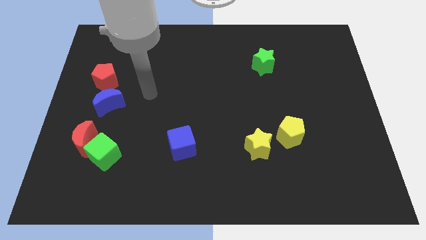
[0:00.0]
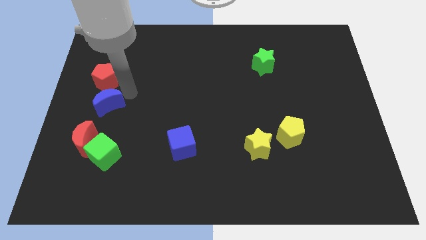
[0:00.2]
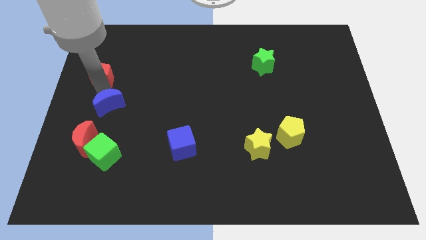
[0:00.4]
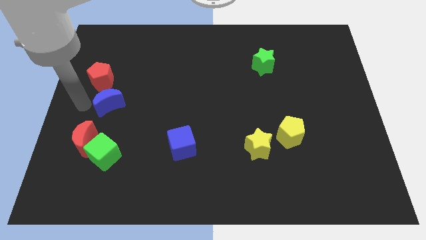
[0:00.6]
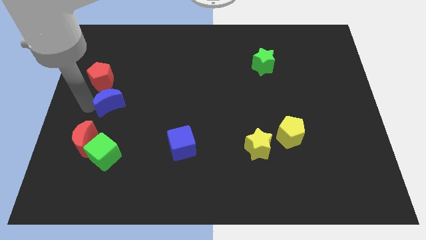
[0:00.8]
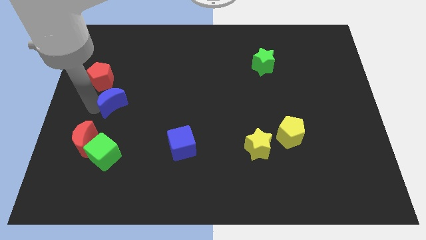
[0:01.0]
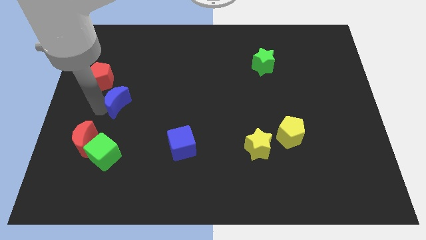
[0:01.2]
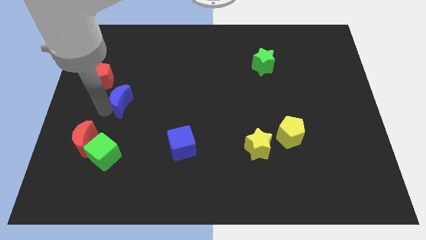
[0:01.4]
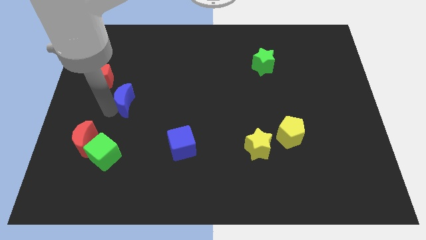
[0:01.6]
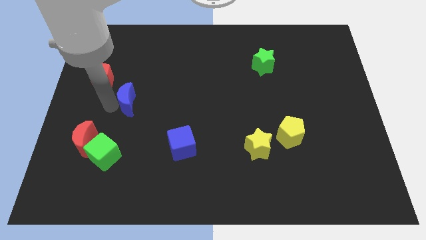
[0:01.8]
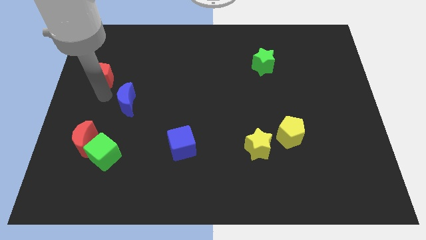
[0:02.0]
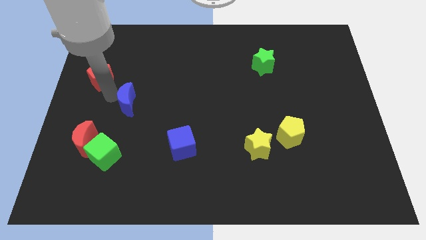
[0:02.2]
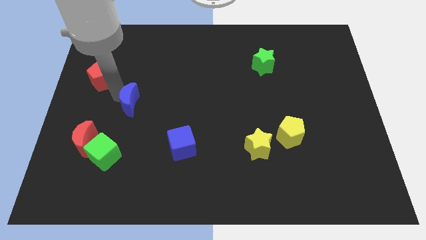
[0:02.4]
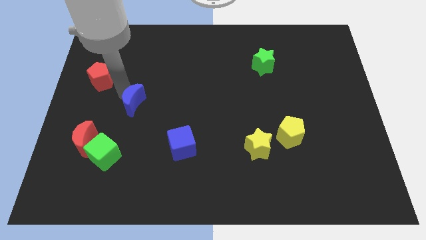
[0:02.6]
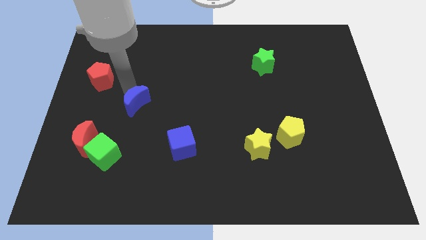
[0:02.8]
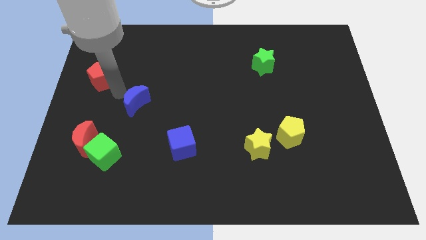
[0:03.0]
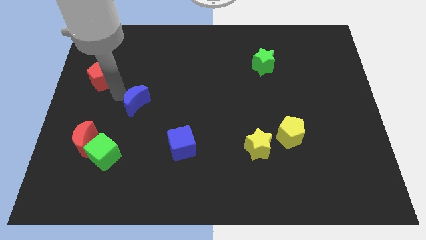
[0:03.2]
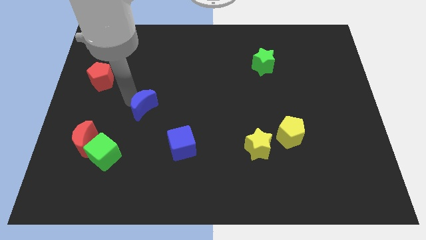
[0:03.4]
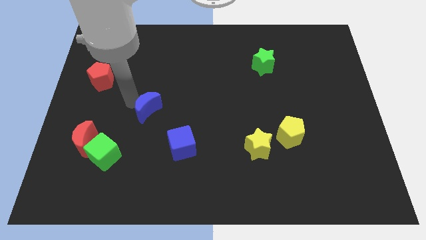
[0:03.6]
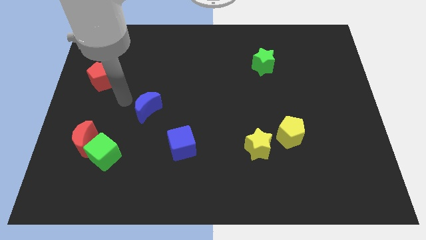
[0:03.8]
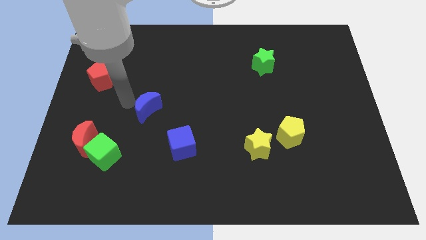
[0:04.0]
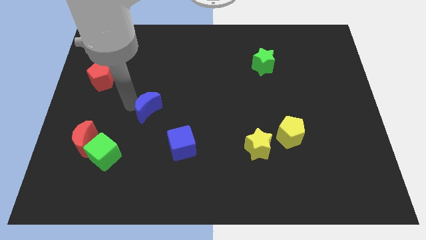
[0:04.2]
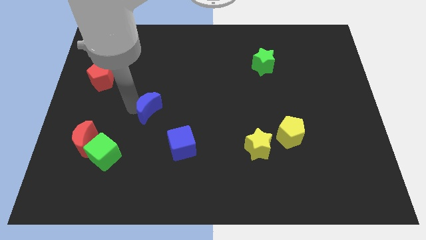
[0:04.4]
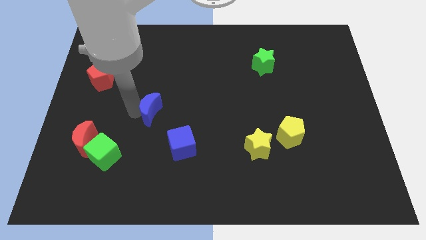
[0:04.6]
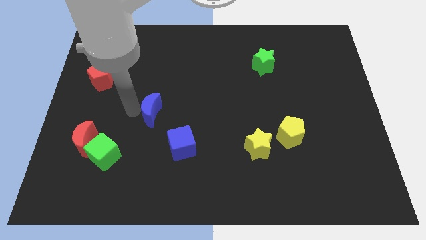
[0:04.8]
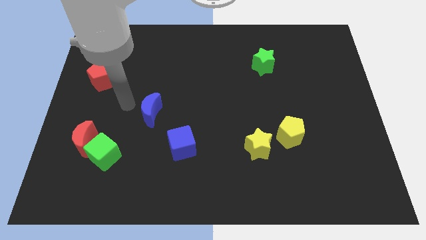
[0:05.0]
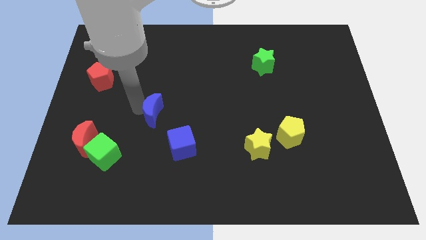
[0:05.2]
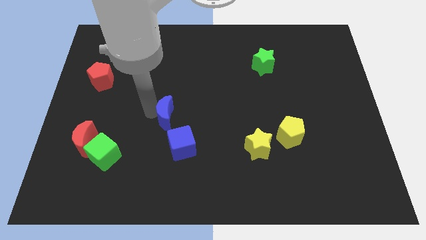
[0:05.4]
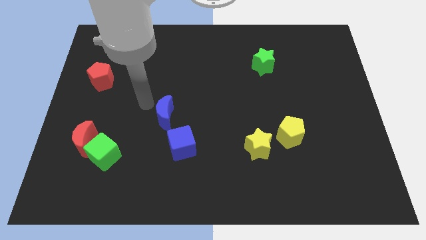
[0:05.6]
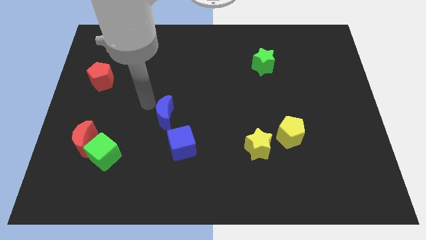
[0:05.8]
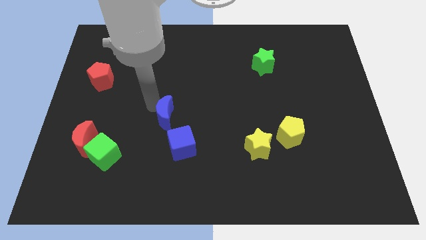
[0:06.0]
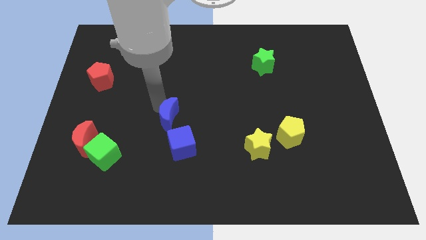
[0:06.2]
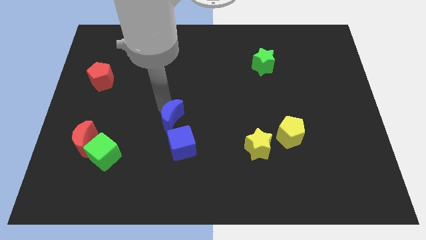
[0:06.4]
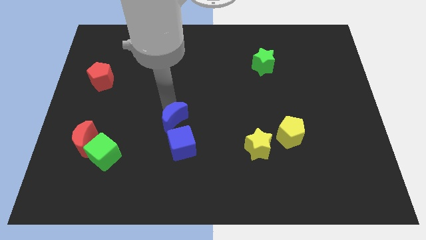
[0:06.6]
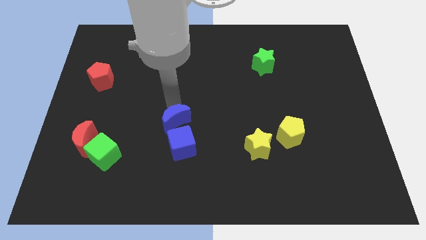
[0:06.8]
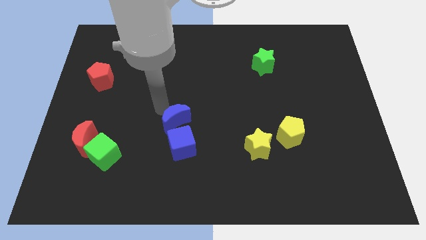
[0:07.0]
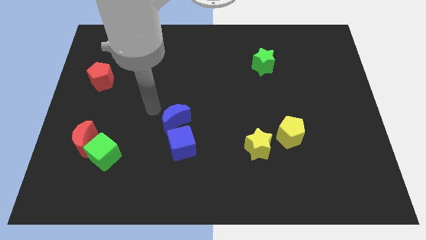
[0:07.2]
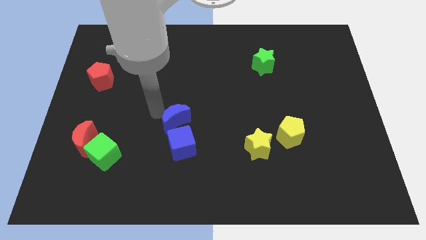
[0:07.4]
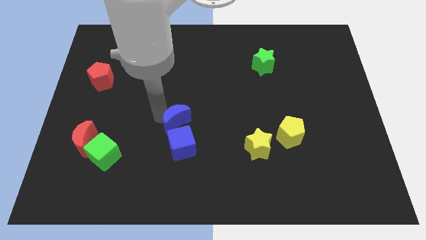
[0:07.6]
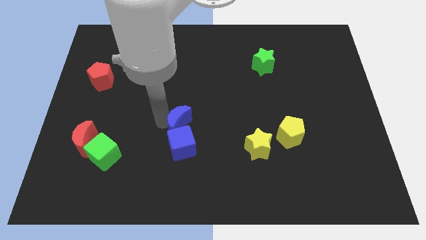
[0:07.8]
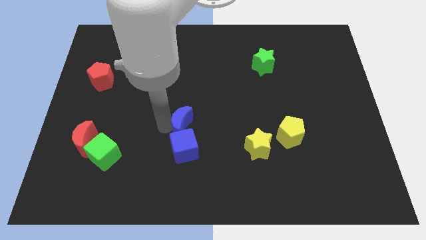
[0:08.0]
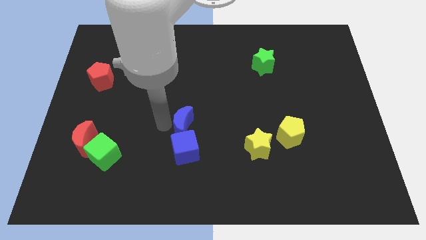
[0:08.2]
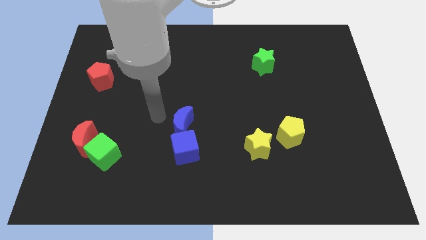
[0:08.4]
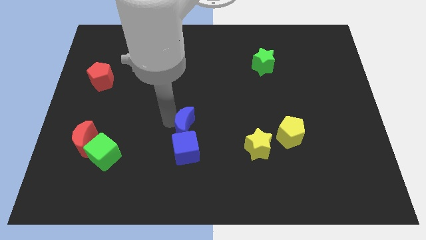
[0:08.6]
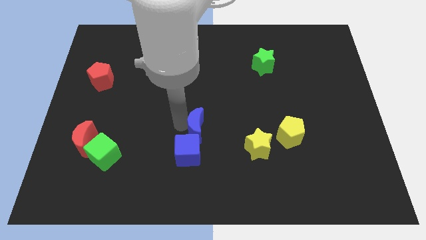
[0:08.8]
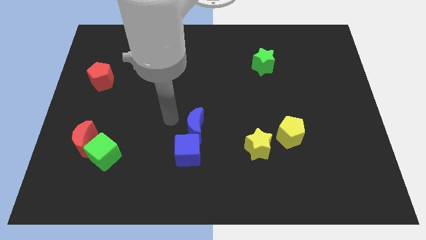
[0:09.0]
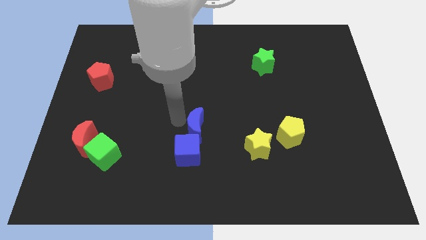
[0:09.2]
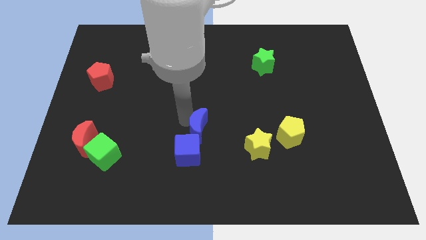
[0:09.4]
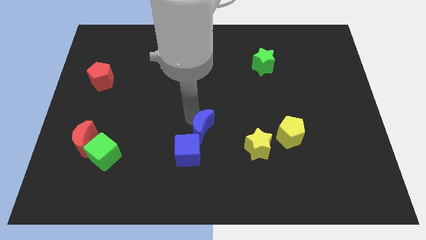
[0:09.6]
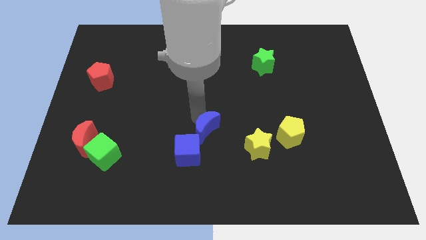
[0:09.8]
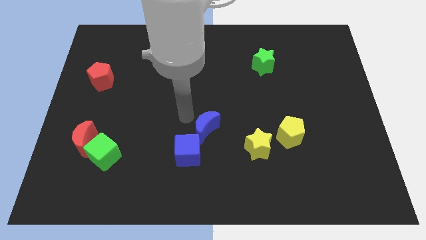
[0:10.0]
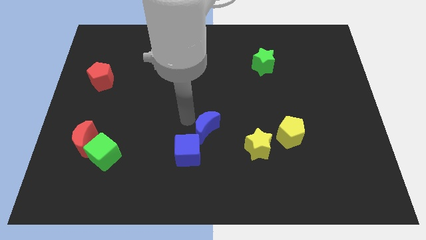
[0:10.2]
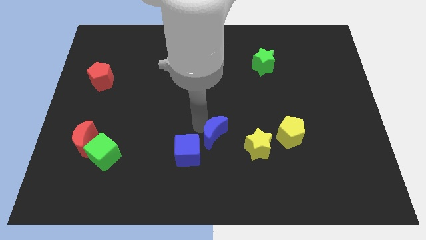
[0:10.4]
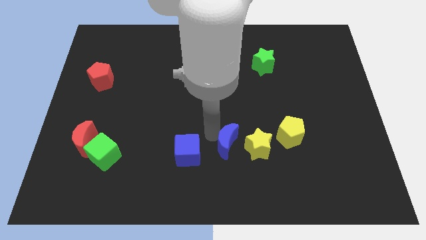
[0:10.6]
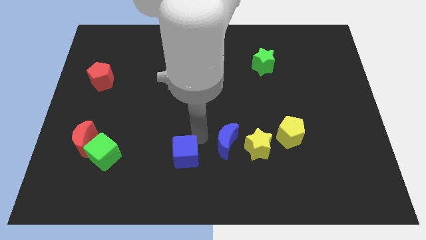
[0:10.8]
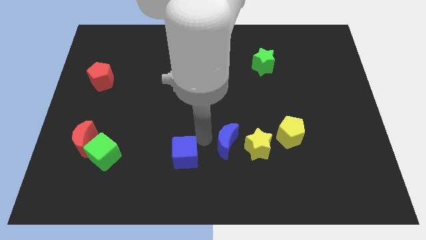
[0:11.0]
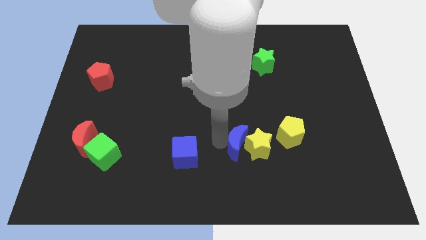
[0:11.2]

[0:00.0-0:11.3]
move the blue moon next to the yellow star

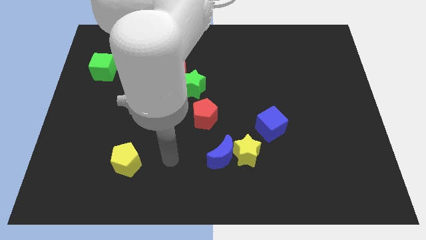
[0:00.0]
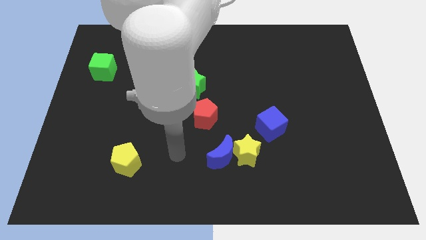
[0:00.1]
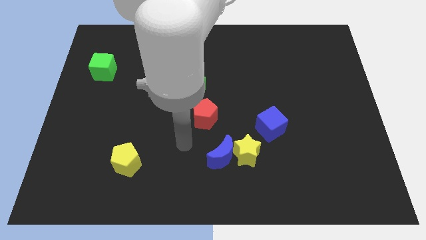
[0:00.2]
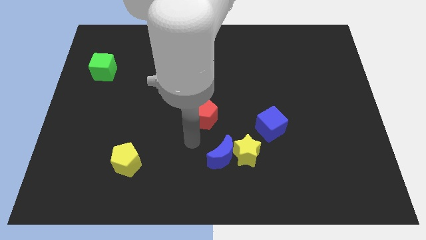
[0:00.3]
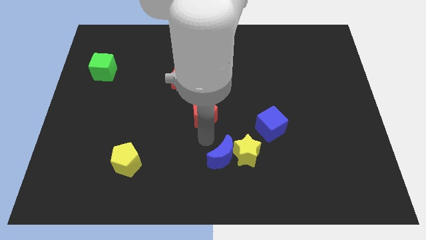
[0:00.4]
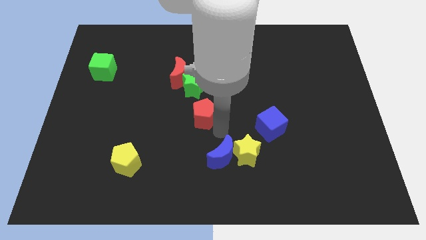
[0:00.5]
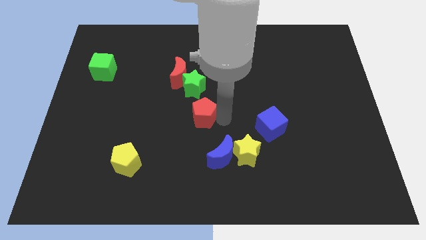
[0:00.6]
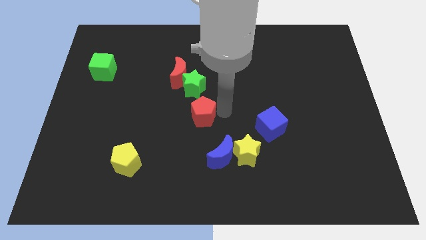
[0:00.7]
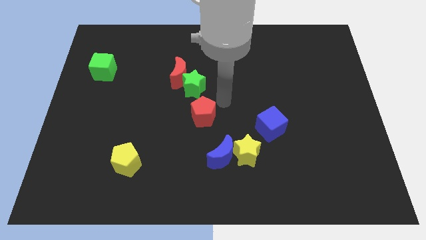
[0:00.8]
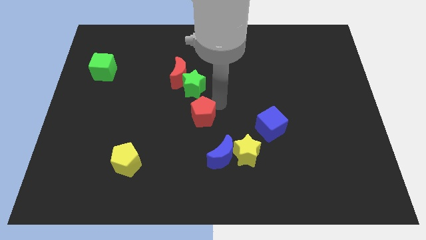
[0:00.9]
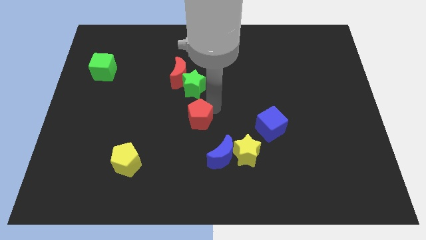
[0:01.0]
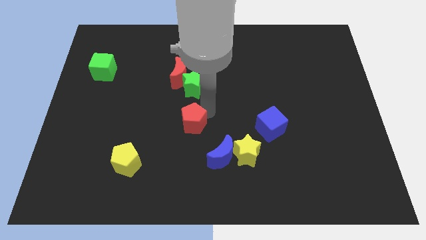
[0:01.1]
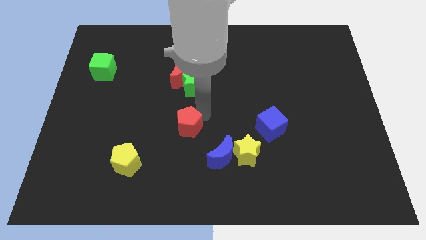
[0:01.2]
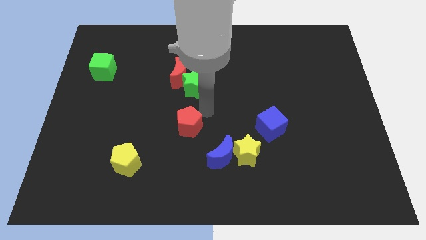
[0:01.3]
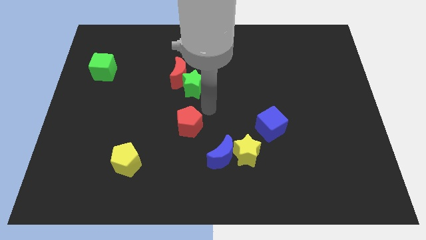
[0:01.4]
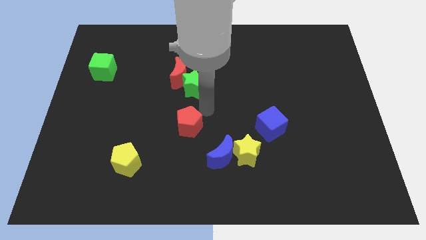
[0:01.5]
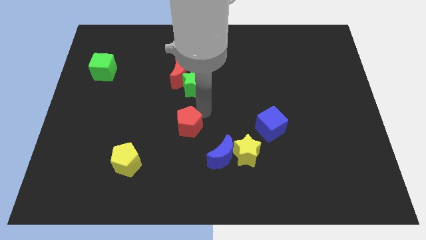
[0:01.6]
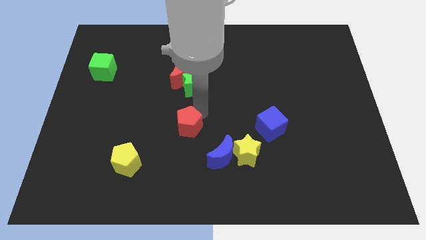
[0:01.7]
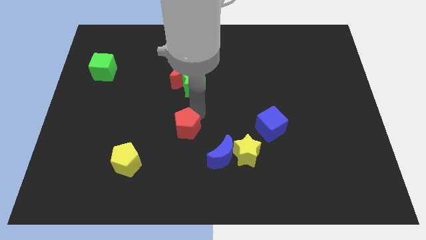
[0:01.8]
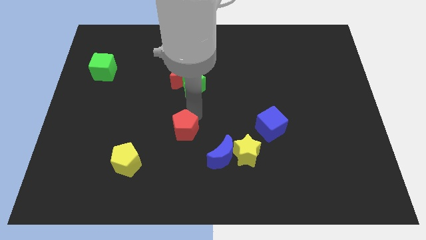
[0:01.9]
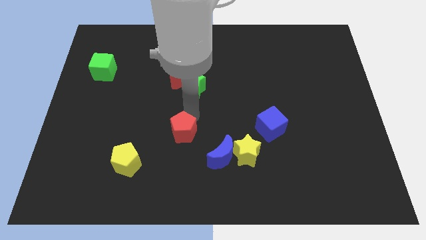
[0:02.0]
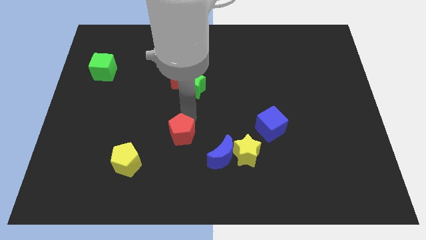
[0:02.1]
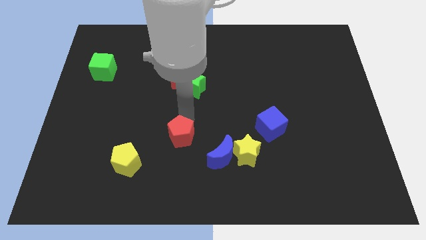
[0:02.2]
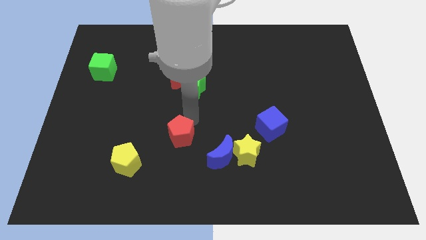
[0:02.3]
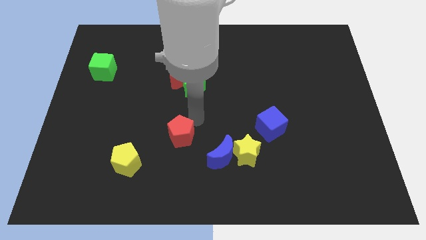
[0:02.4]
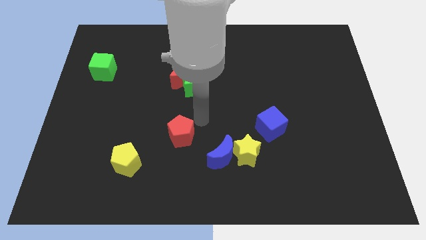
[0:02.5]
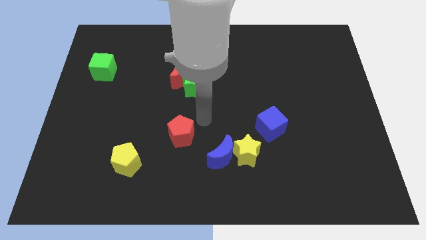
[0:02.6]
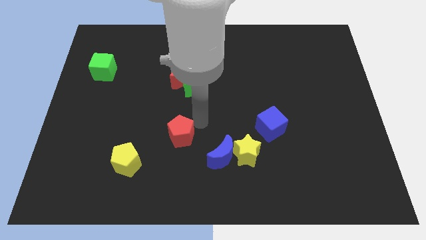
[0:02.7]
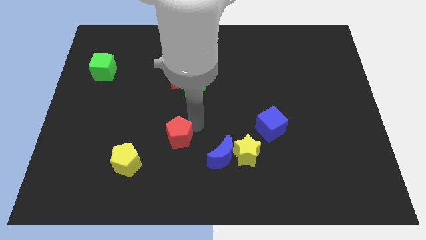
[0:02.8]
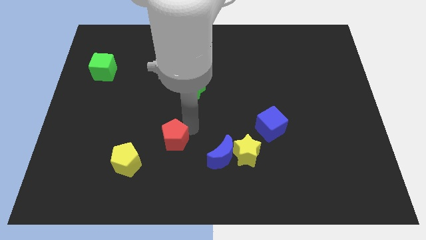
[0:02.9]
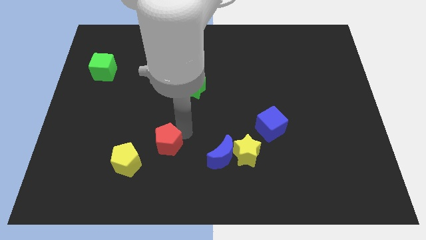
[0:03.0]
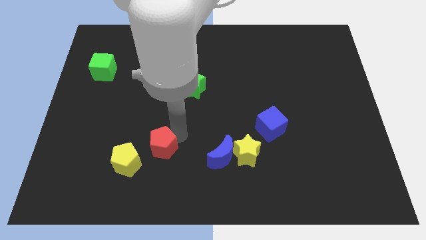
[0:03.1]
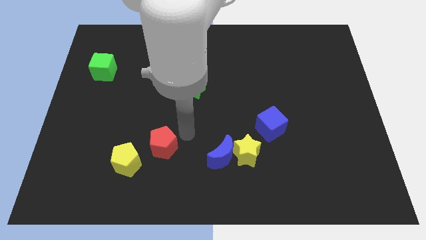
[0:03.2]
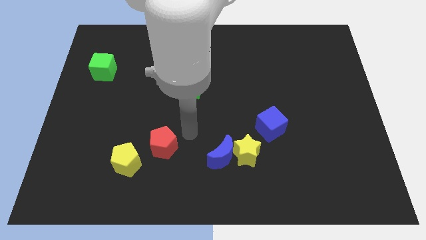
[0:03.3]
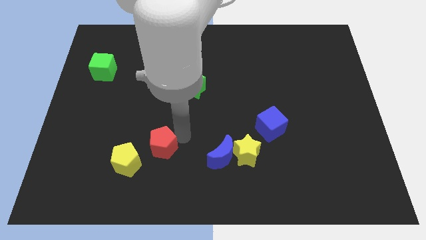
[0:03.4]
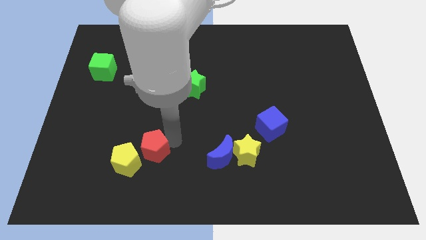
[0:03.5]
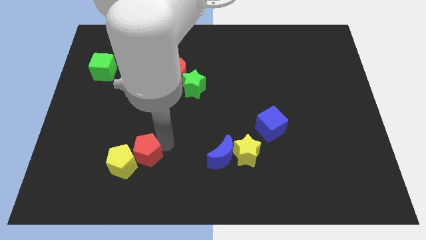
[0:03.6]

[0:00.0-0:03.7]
move the red pentagon to the yellow pentagon
